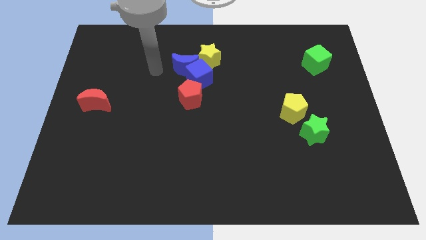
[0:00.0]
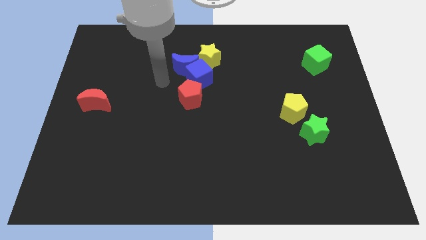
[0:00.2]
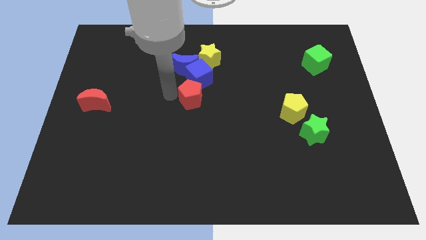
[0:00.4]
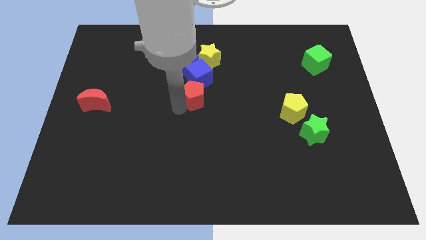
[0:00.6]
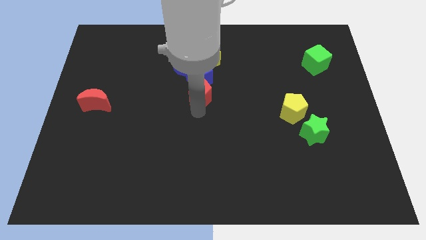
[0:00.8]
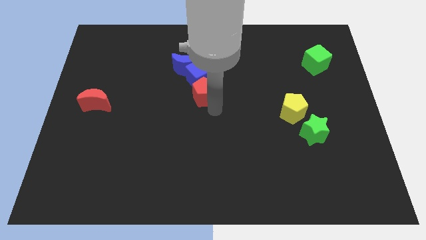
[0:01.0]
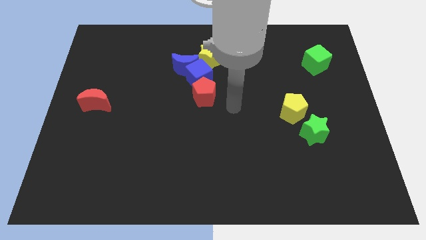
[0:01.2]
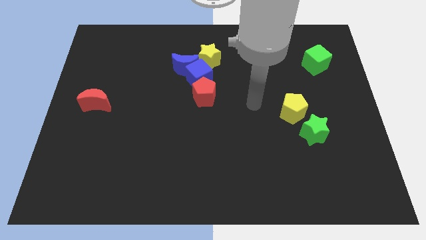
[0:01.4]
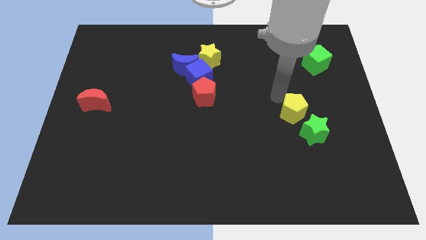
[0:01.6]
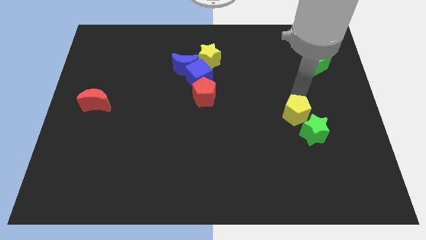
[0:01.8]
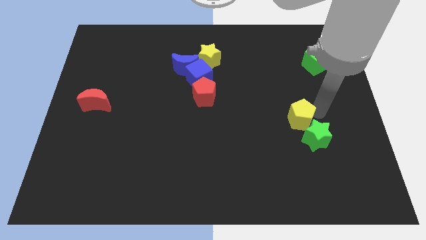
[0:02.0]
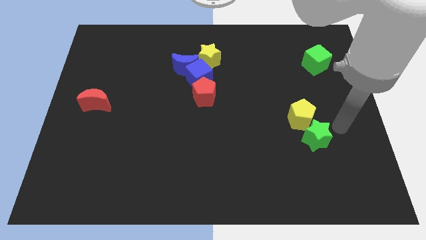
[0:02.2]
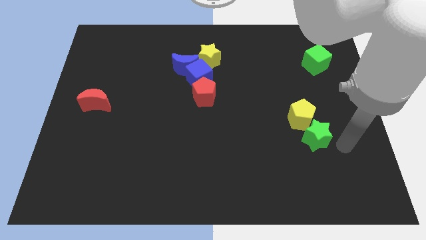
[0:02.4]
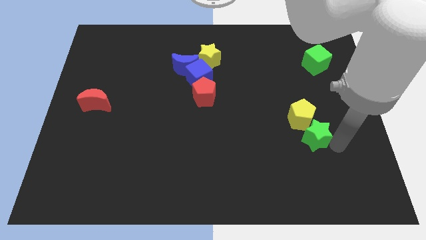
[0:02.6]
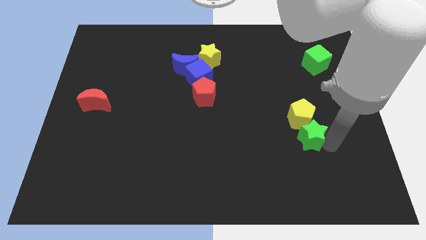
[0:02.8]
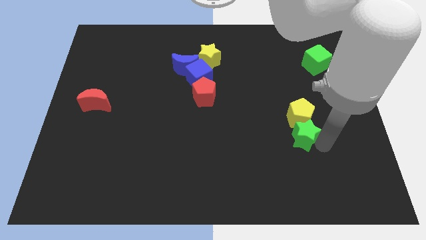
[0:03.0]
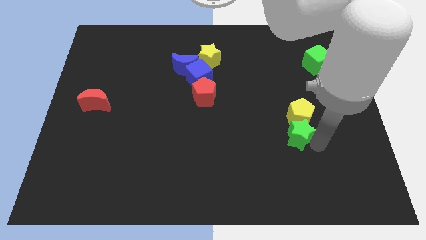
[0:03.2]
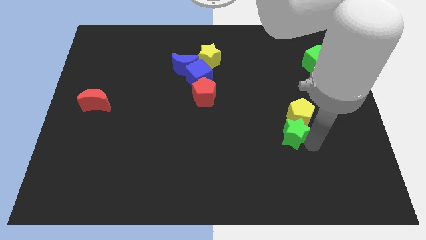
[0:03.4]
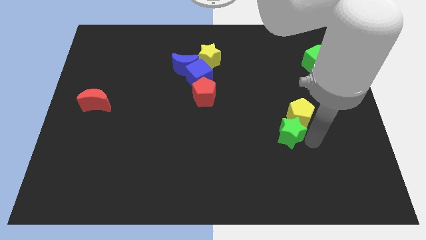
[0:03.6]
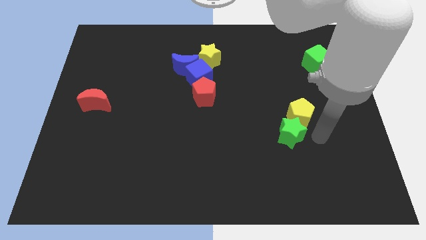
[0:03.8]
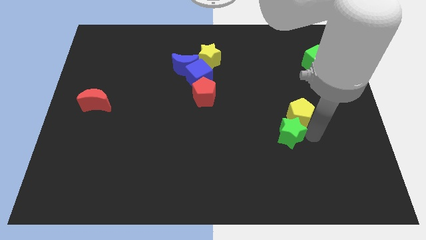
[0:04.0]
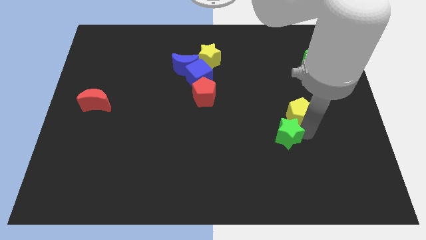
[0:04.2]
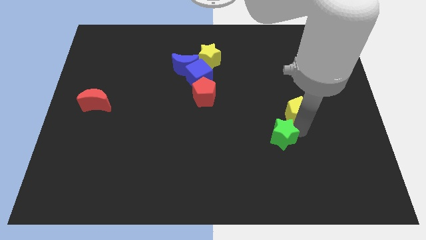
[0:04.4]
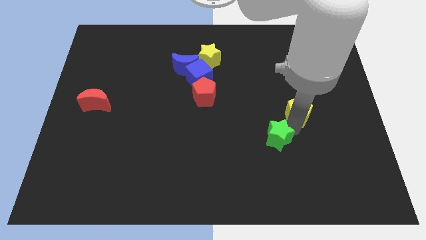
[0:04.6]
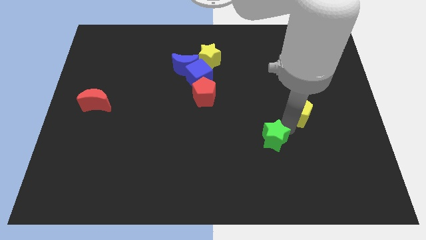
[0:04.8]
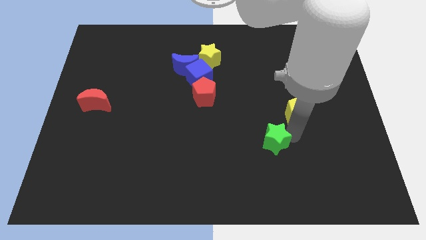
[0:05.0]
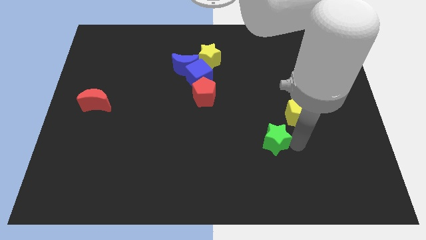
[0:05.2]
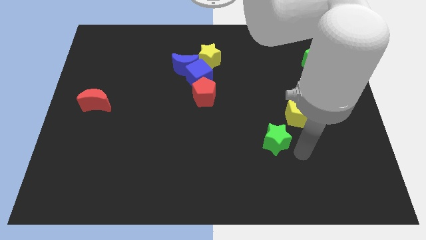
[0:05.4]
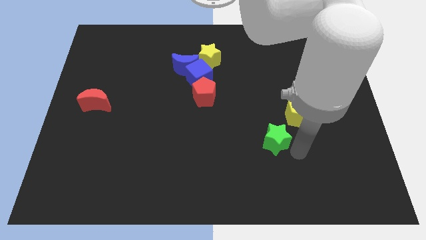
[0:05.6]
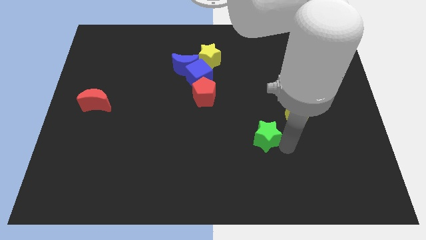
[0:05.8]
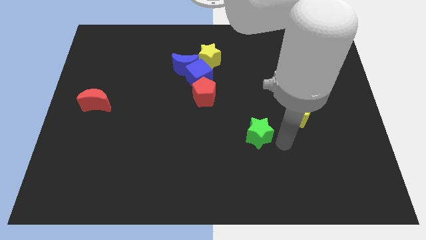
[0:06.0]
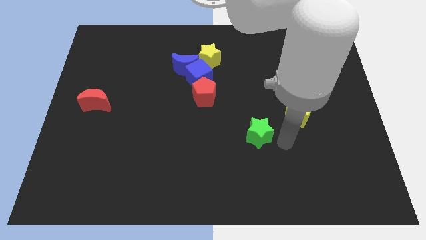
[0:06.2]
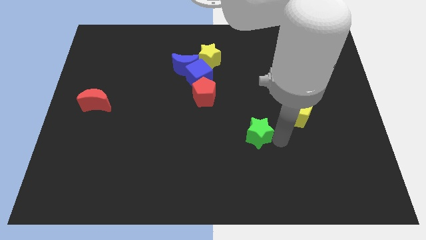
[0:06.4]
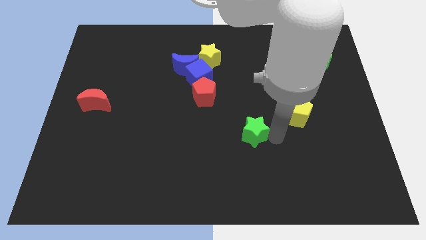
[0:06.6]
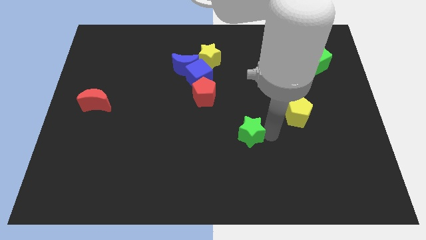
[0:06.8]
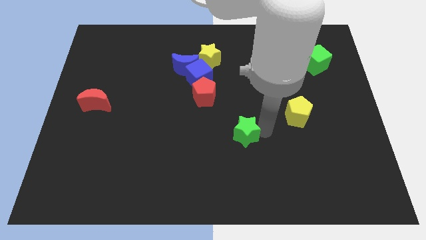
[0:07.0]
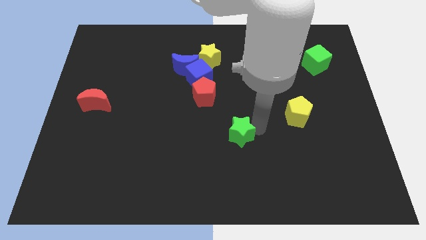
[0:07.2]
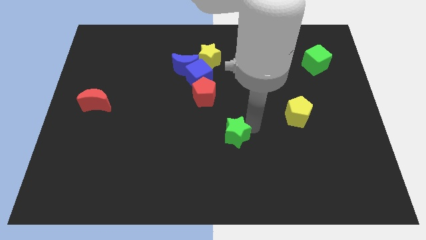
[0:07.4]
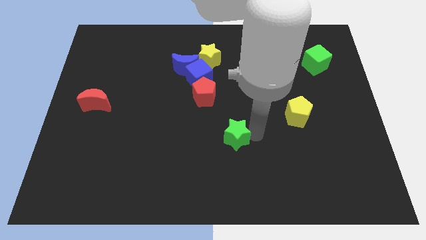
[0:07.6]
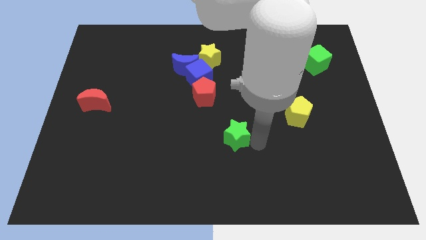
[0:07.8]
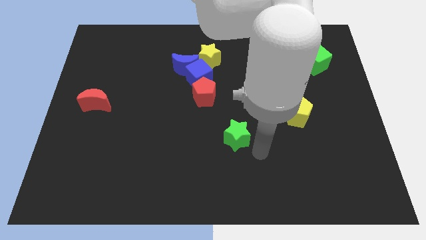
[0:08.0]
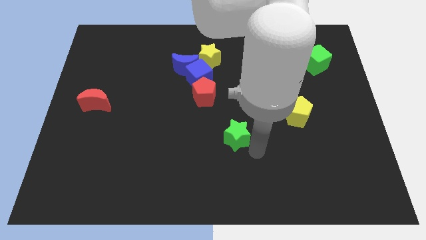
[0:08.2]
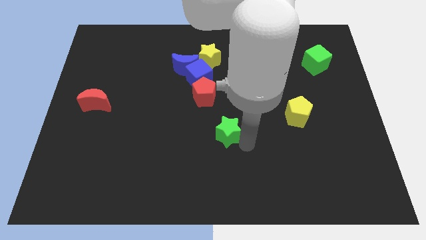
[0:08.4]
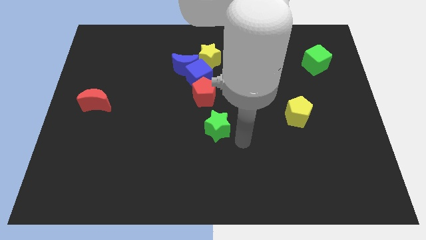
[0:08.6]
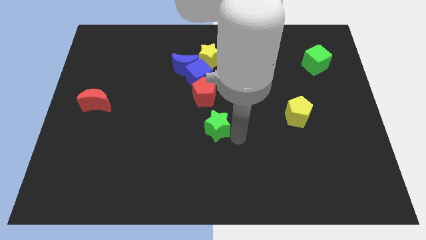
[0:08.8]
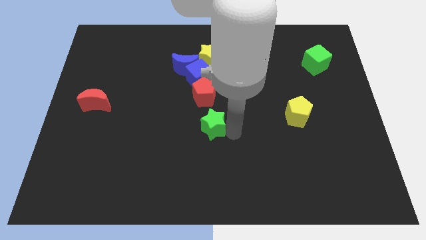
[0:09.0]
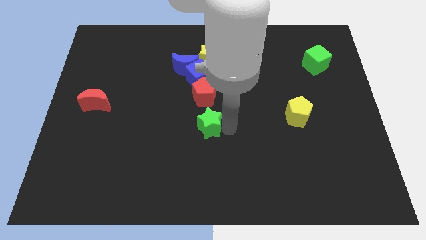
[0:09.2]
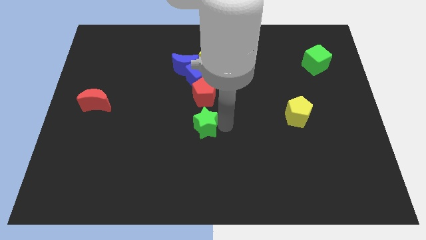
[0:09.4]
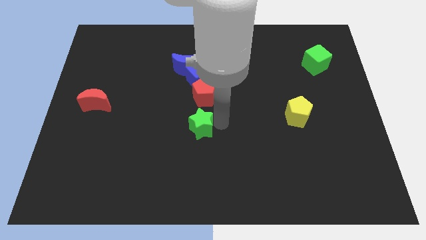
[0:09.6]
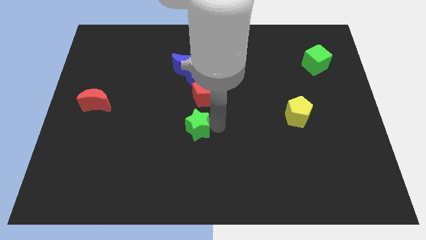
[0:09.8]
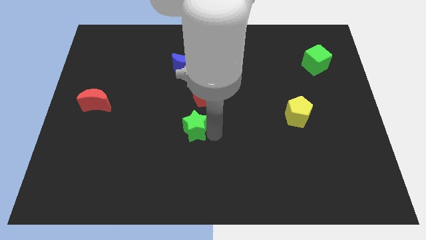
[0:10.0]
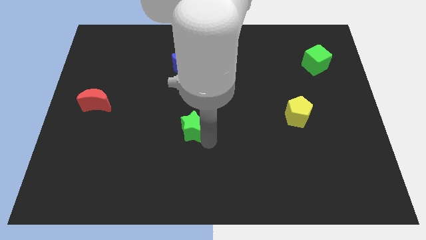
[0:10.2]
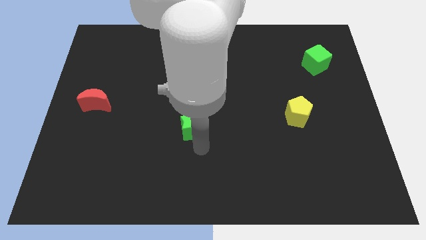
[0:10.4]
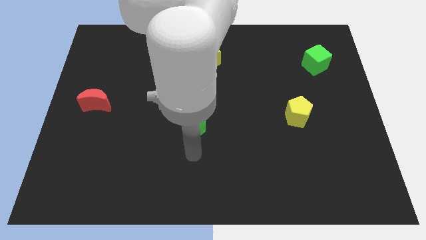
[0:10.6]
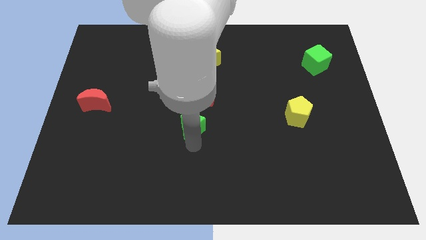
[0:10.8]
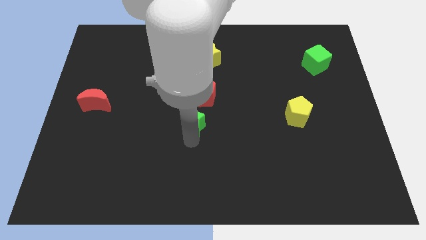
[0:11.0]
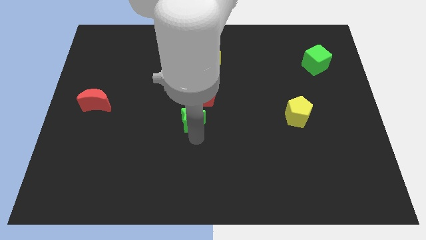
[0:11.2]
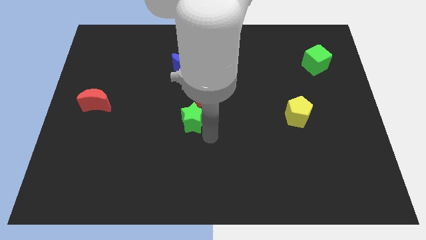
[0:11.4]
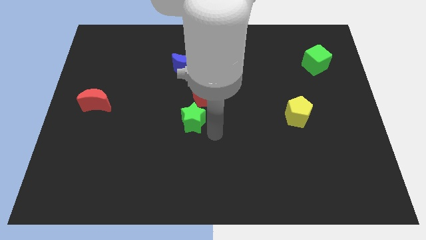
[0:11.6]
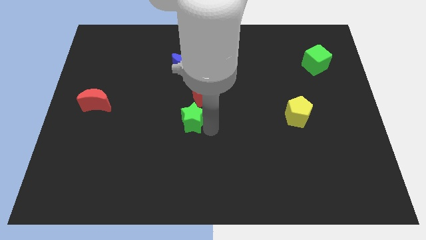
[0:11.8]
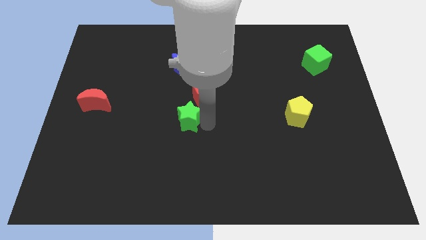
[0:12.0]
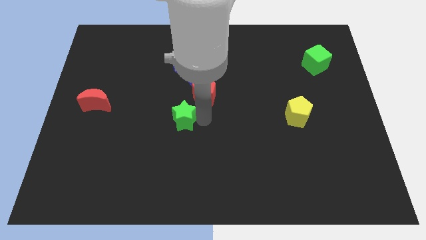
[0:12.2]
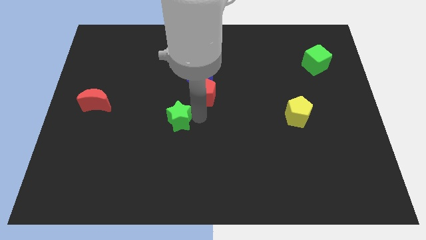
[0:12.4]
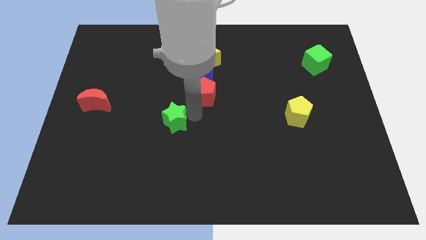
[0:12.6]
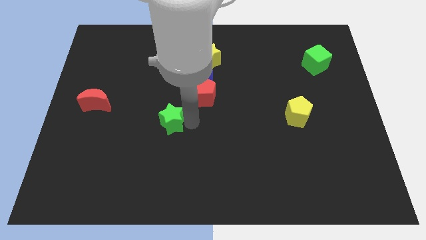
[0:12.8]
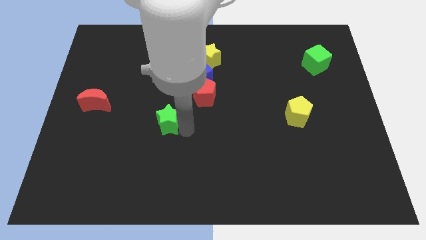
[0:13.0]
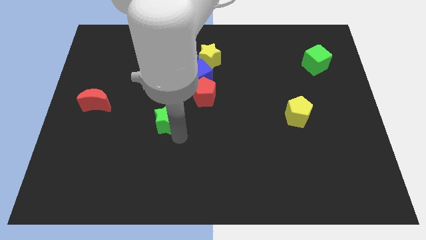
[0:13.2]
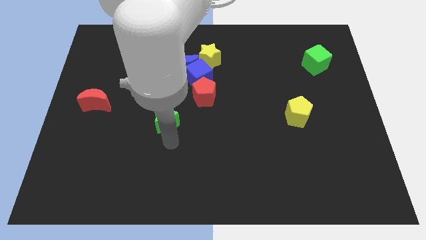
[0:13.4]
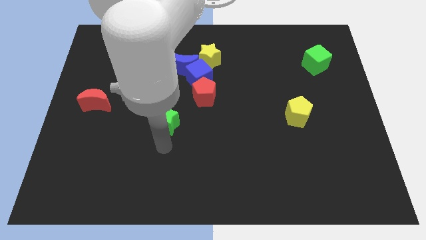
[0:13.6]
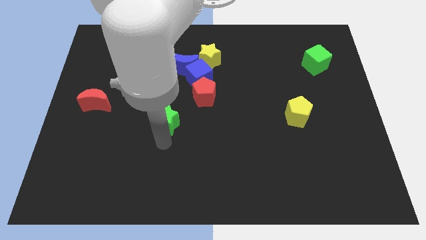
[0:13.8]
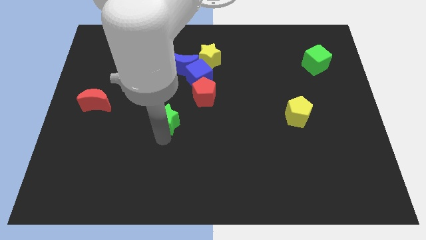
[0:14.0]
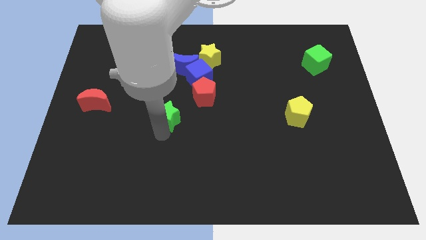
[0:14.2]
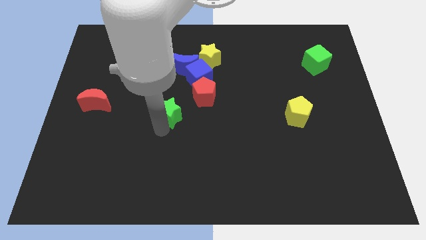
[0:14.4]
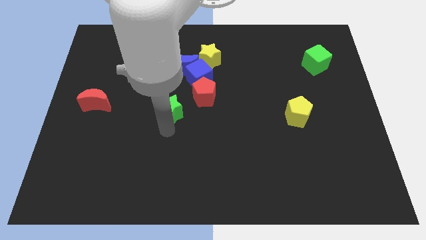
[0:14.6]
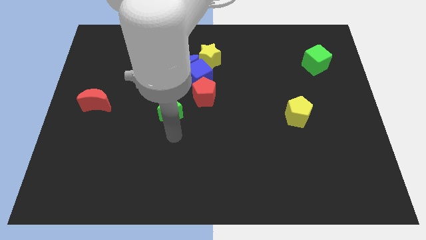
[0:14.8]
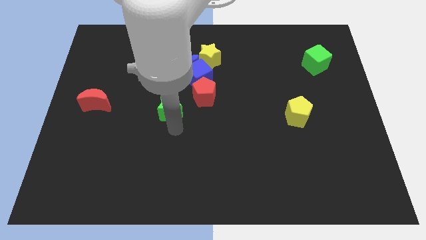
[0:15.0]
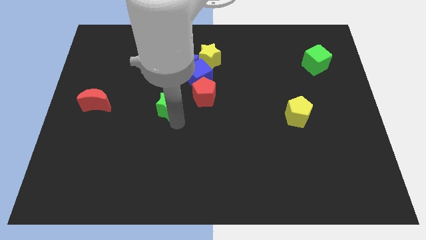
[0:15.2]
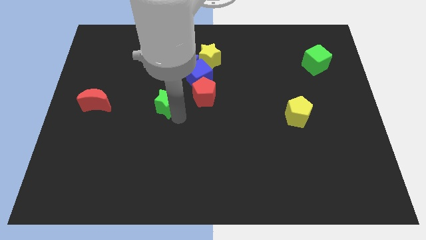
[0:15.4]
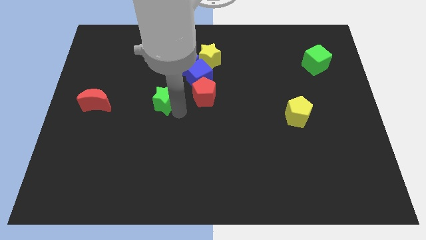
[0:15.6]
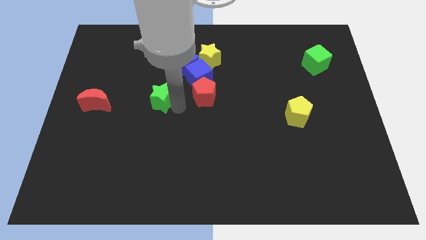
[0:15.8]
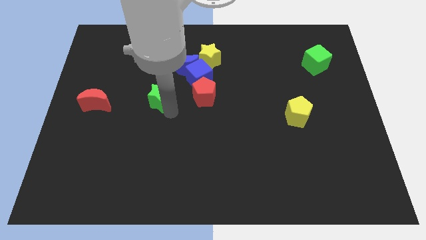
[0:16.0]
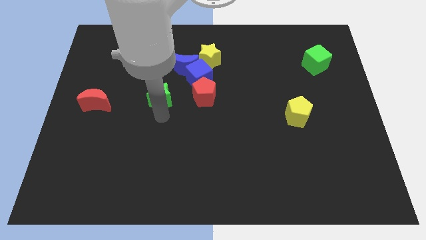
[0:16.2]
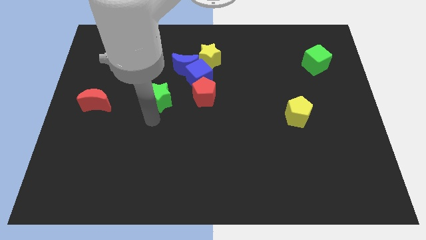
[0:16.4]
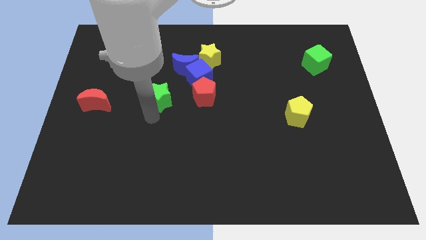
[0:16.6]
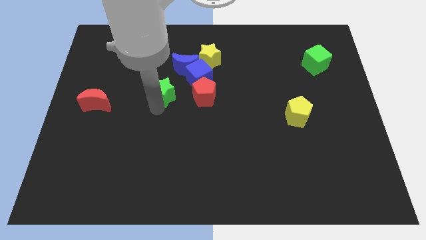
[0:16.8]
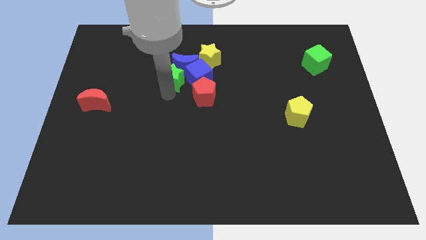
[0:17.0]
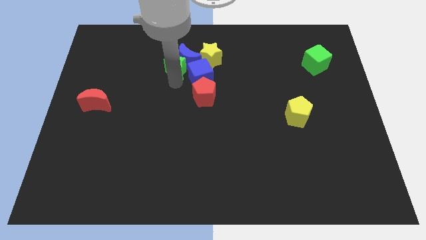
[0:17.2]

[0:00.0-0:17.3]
put the green star to the left side of the yellow star

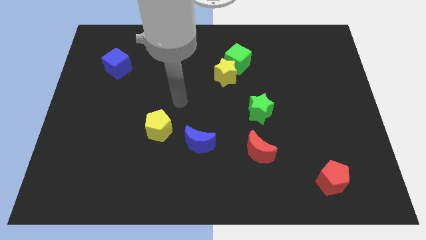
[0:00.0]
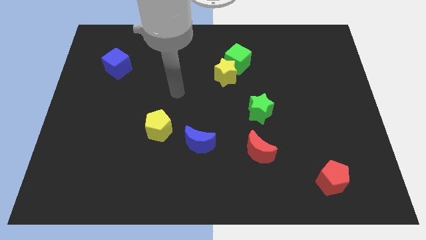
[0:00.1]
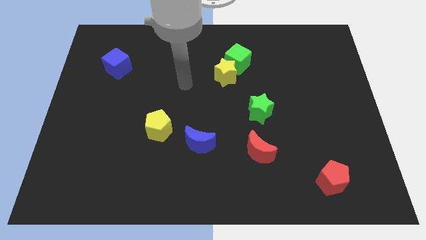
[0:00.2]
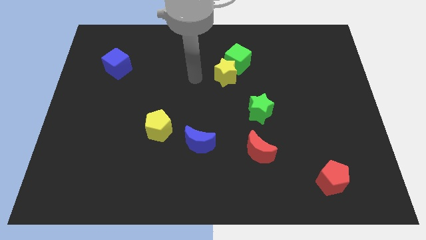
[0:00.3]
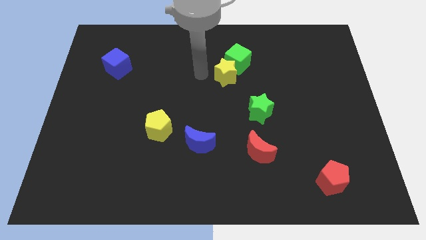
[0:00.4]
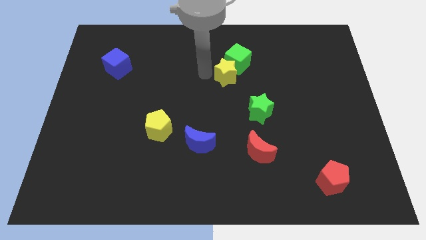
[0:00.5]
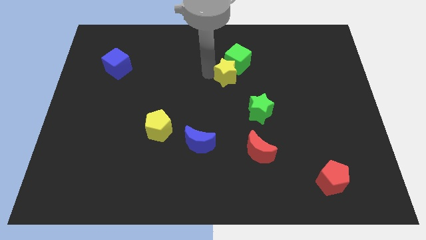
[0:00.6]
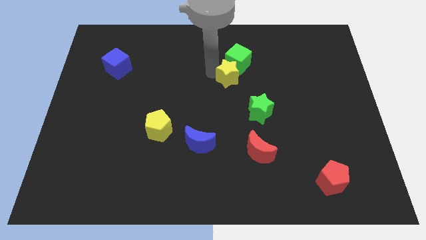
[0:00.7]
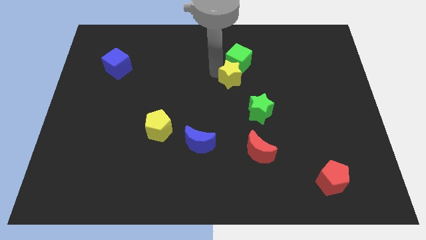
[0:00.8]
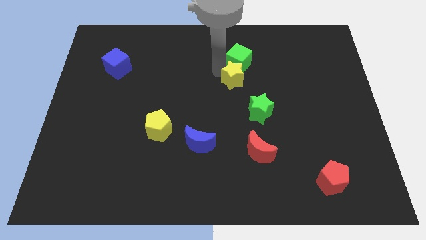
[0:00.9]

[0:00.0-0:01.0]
put the yellow star to the bottom right of the green cube
